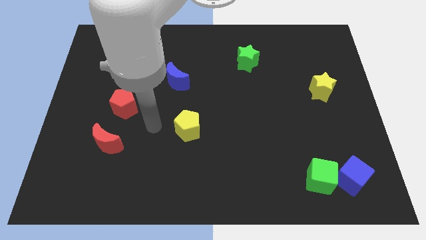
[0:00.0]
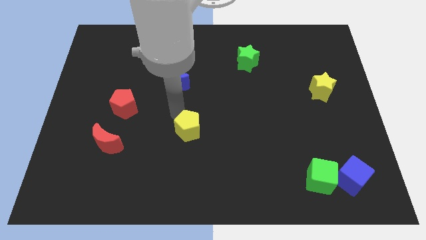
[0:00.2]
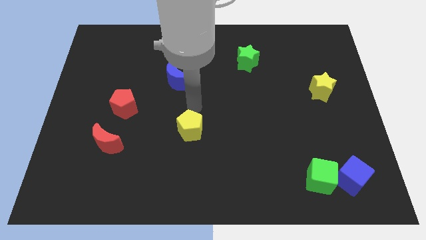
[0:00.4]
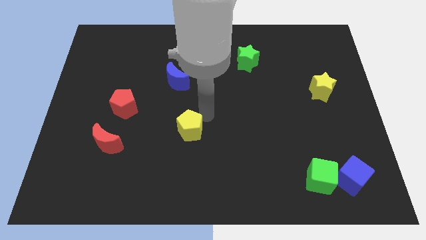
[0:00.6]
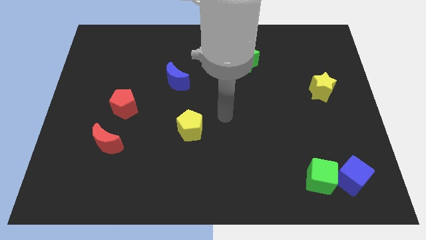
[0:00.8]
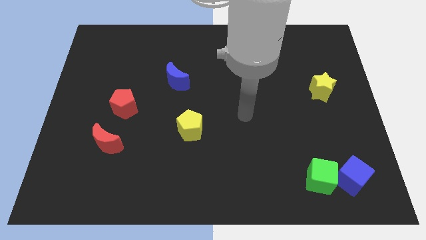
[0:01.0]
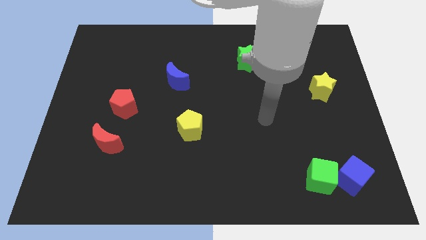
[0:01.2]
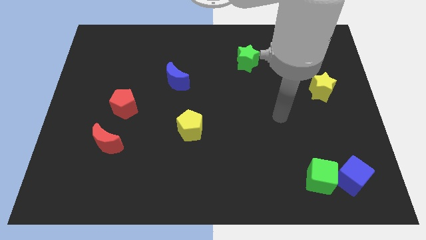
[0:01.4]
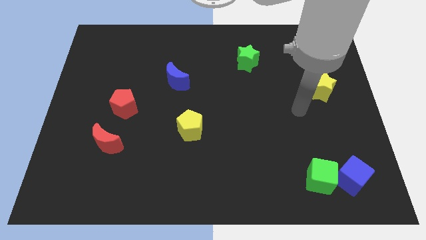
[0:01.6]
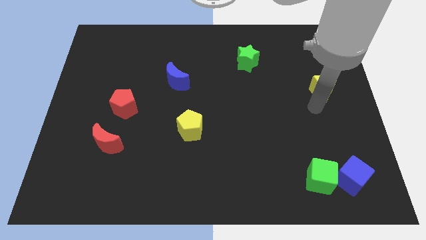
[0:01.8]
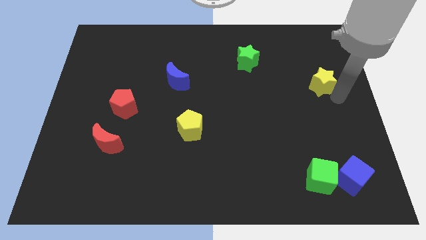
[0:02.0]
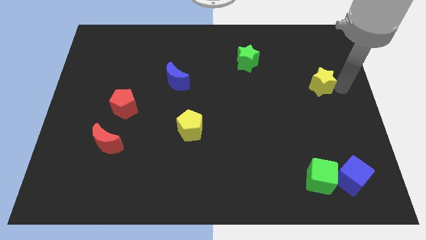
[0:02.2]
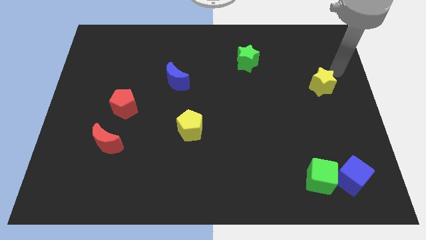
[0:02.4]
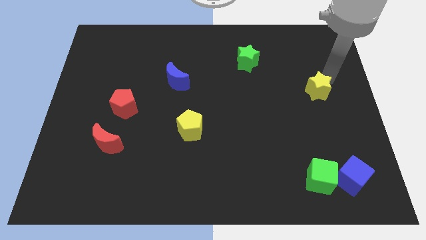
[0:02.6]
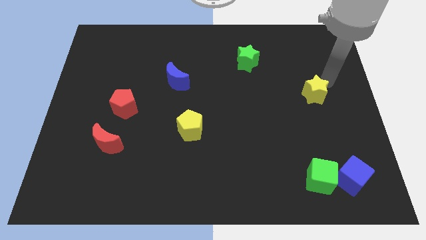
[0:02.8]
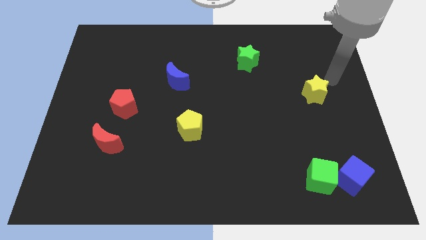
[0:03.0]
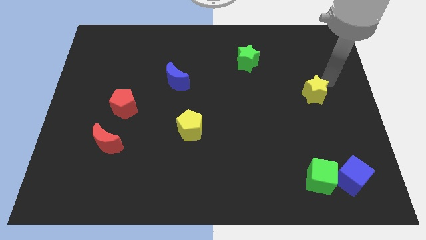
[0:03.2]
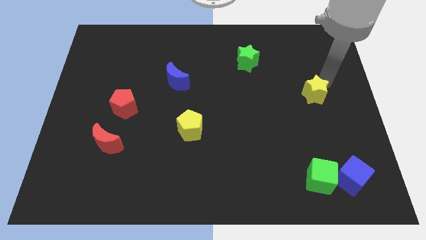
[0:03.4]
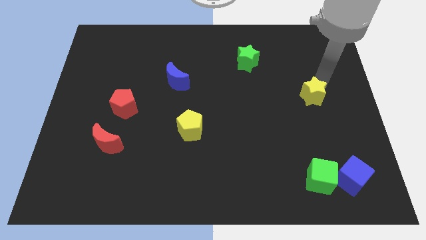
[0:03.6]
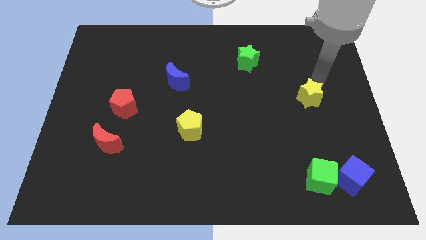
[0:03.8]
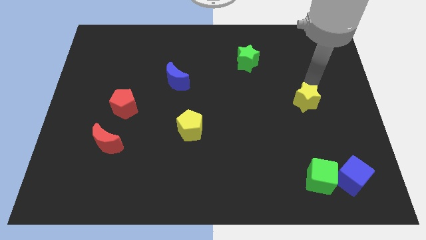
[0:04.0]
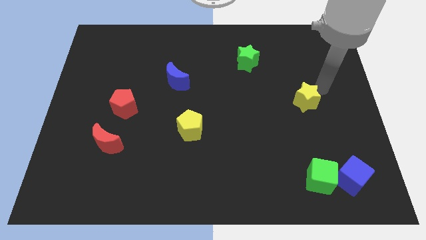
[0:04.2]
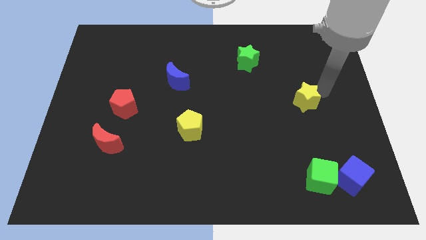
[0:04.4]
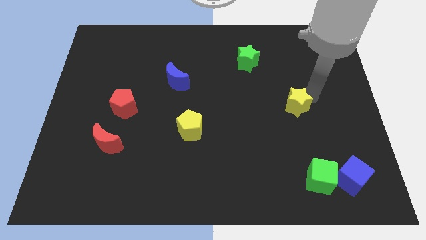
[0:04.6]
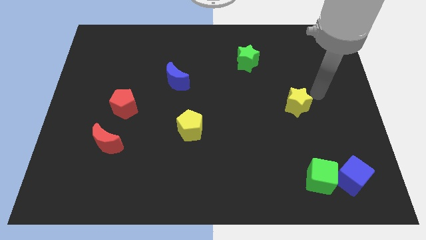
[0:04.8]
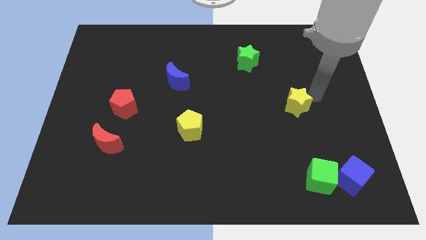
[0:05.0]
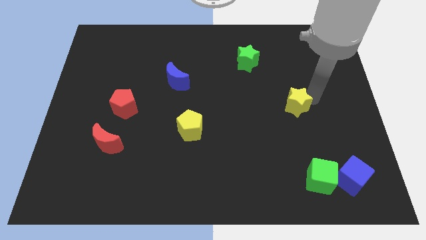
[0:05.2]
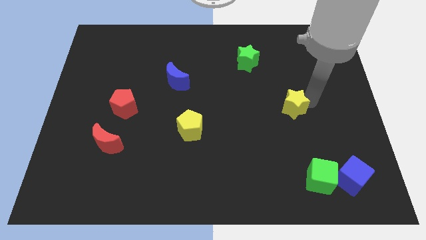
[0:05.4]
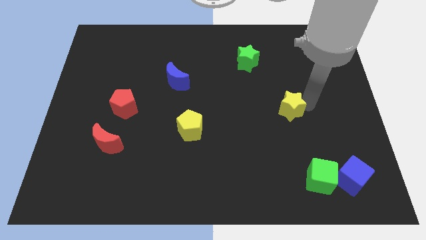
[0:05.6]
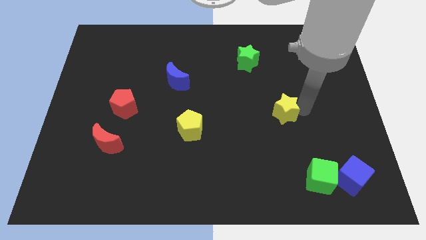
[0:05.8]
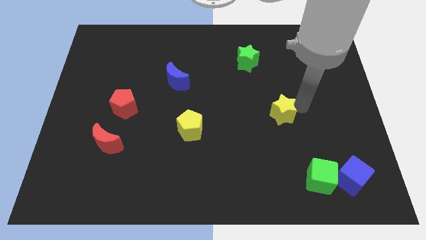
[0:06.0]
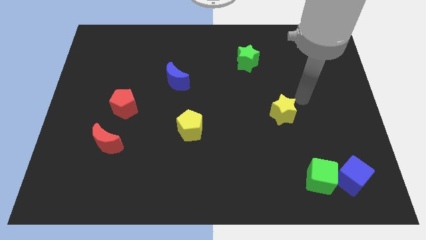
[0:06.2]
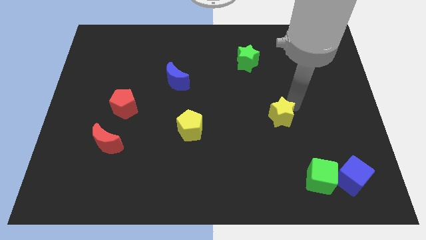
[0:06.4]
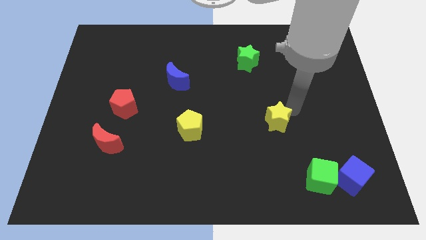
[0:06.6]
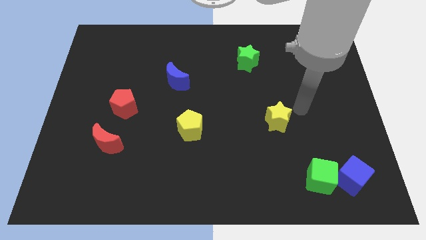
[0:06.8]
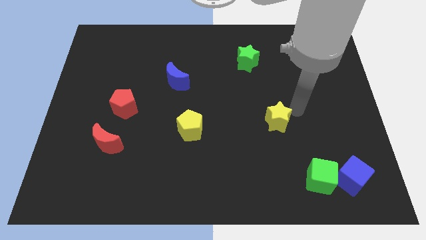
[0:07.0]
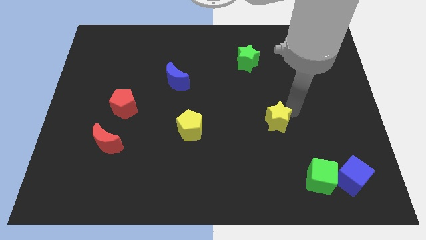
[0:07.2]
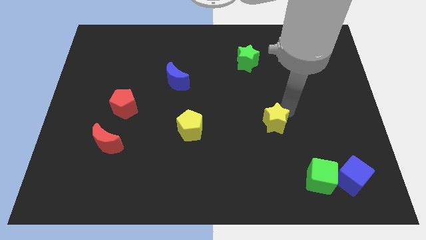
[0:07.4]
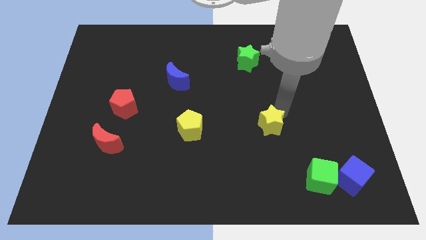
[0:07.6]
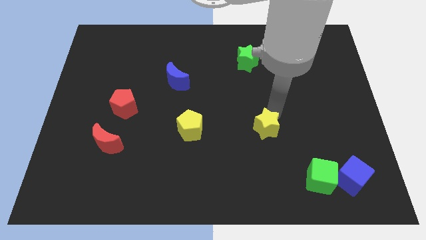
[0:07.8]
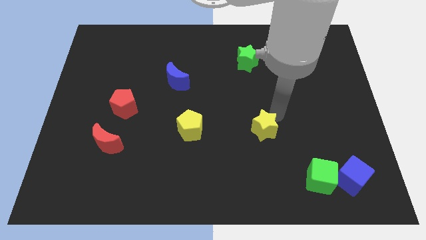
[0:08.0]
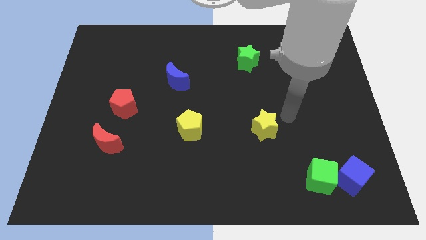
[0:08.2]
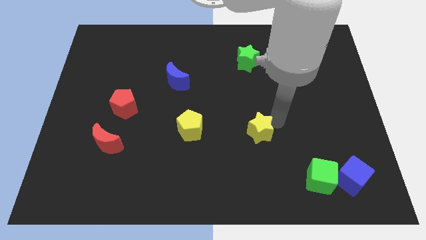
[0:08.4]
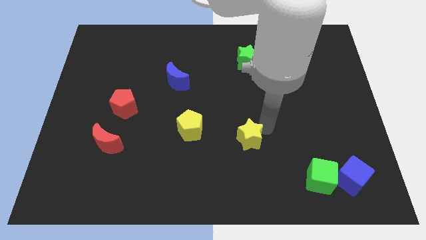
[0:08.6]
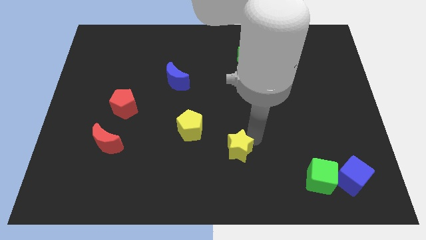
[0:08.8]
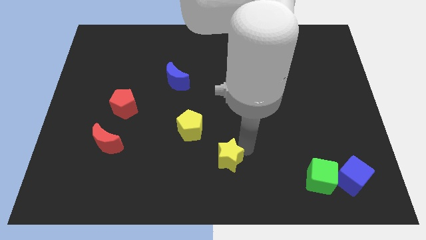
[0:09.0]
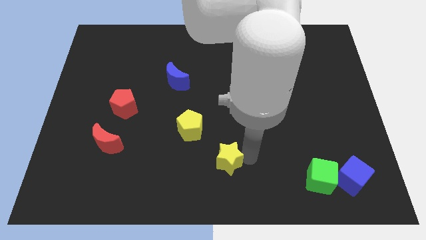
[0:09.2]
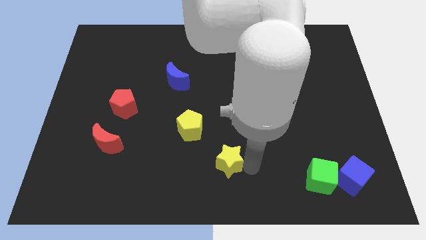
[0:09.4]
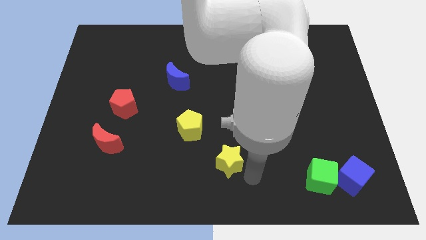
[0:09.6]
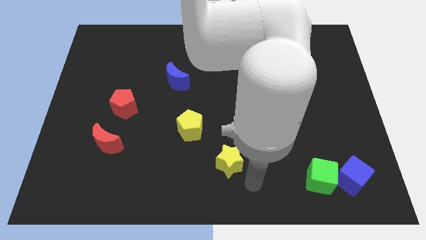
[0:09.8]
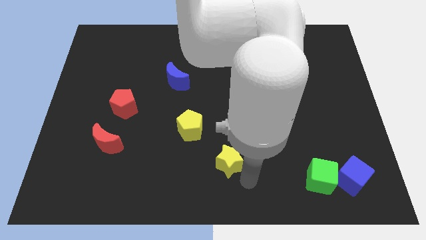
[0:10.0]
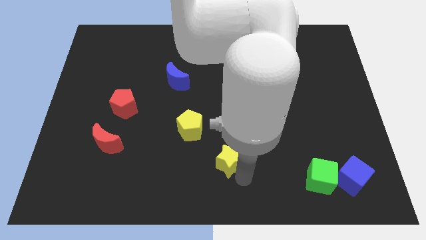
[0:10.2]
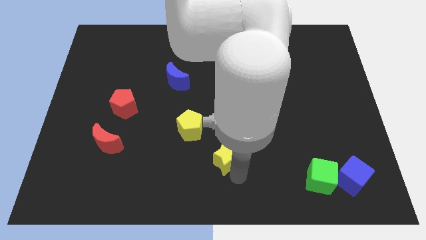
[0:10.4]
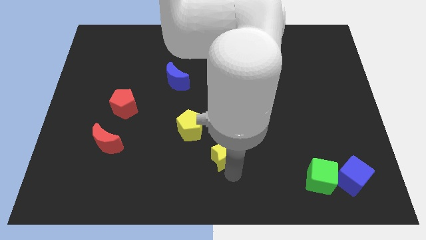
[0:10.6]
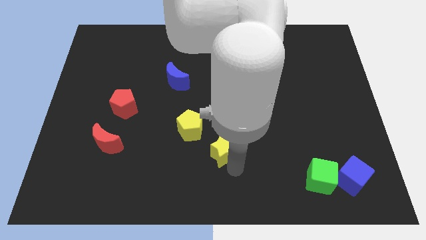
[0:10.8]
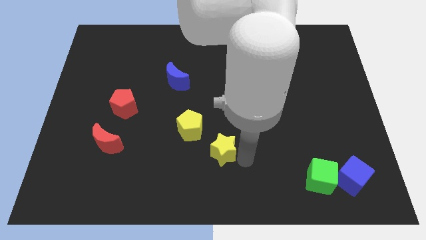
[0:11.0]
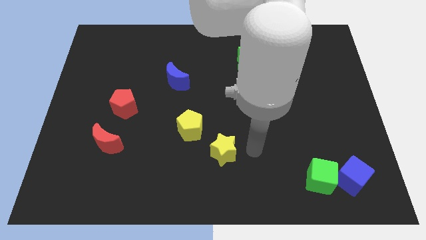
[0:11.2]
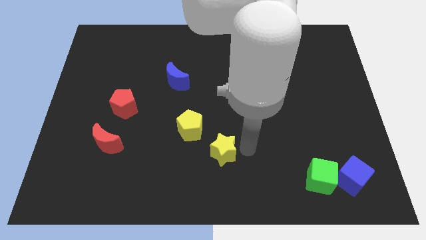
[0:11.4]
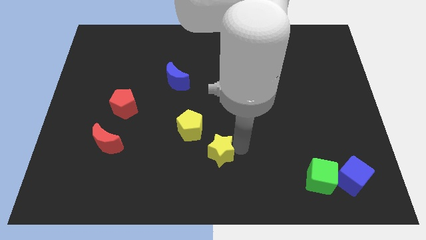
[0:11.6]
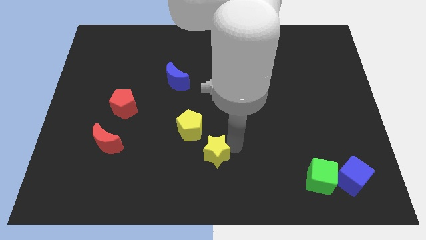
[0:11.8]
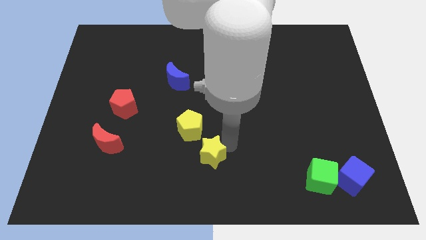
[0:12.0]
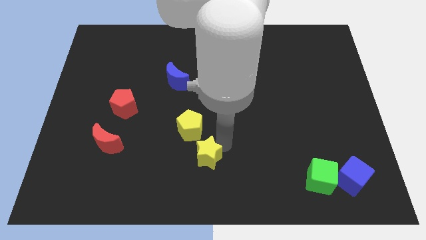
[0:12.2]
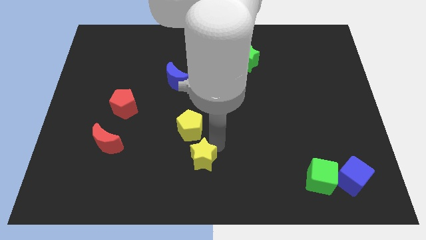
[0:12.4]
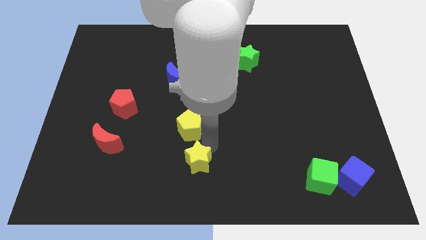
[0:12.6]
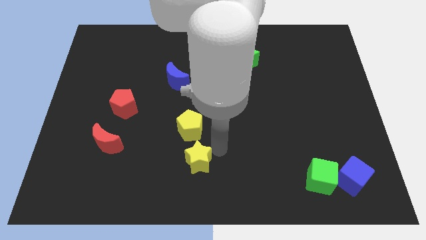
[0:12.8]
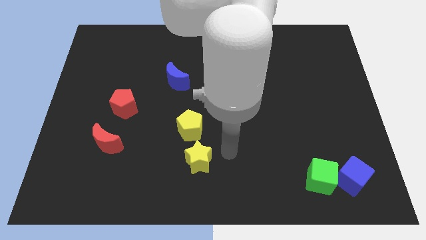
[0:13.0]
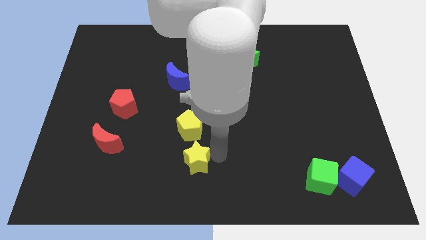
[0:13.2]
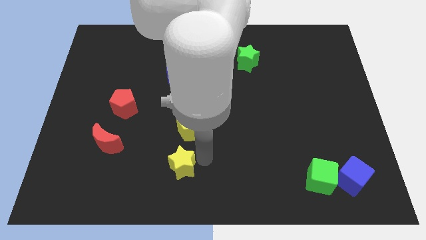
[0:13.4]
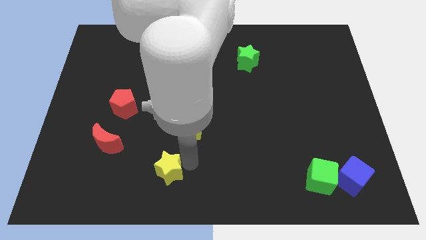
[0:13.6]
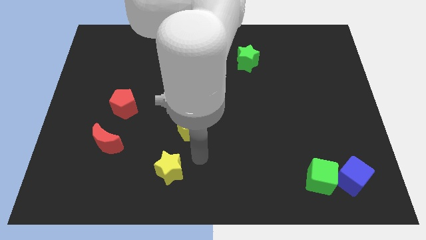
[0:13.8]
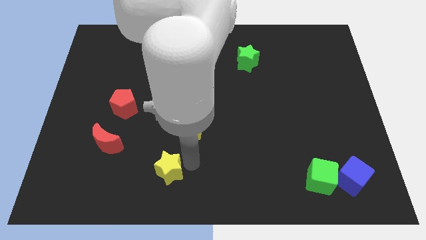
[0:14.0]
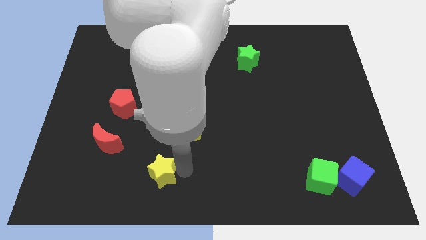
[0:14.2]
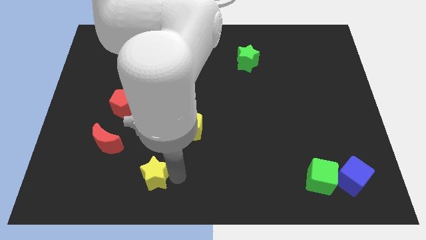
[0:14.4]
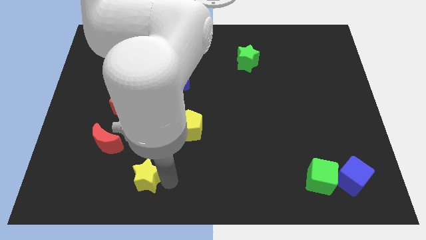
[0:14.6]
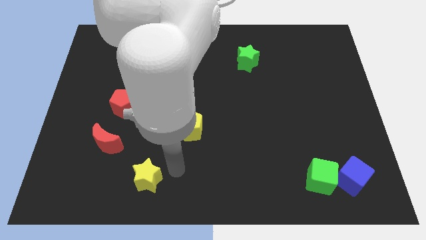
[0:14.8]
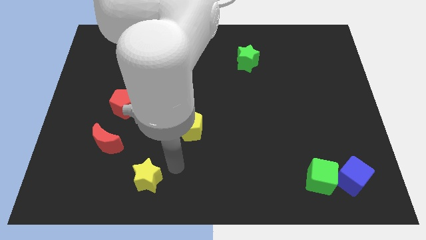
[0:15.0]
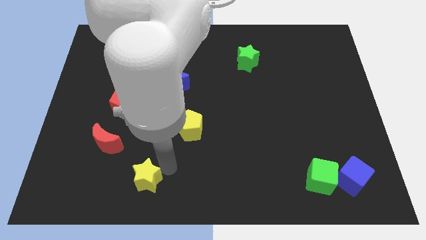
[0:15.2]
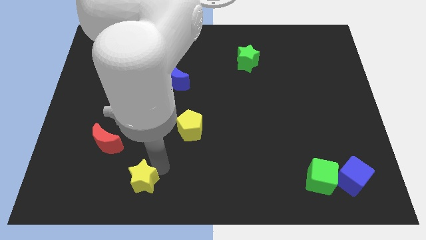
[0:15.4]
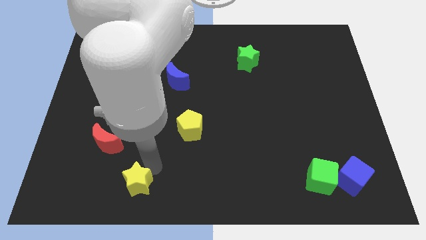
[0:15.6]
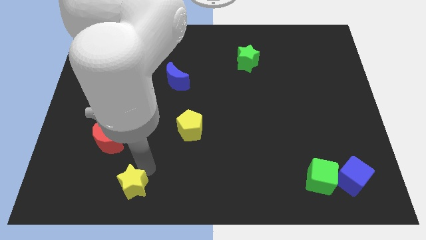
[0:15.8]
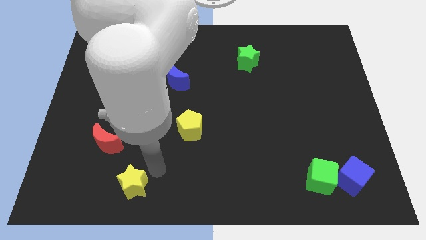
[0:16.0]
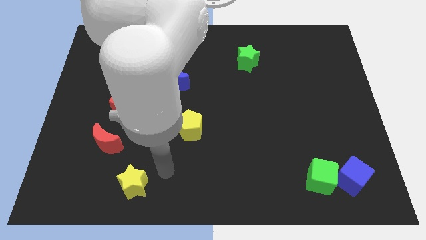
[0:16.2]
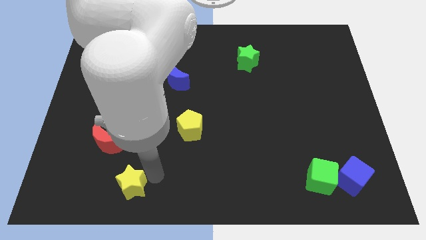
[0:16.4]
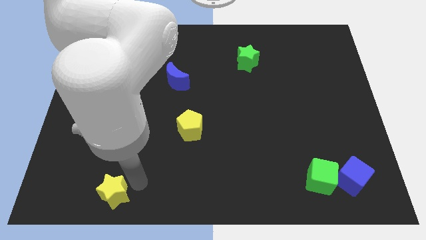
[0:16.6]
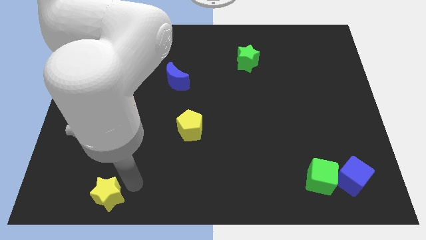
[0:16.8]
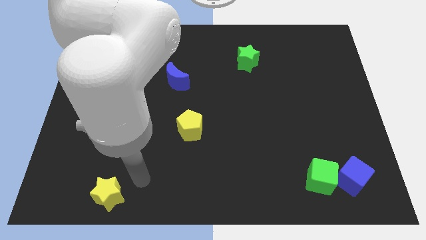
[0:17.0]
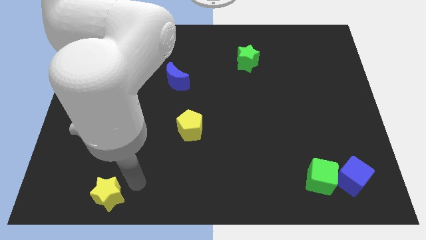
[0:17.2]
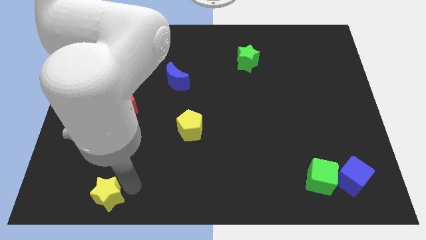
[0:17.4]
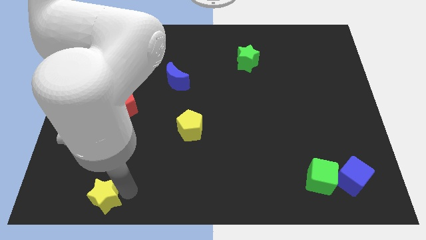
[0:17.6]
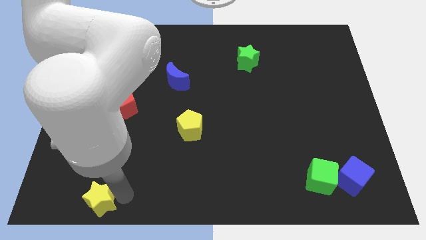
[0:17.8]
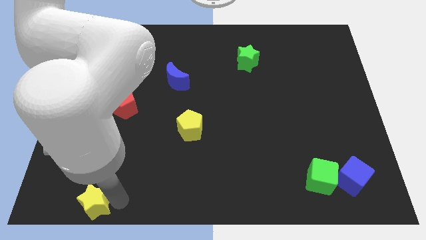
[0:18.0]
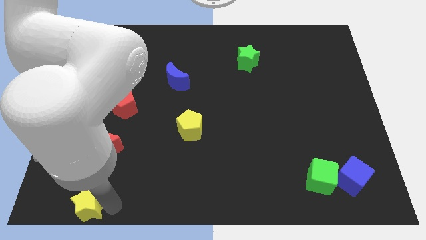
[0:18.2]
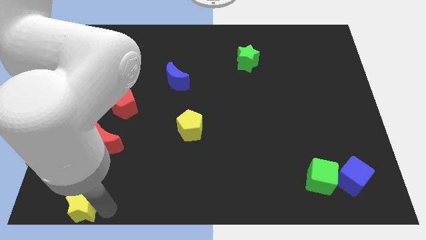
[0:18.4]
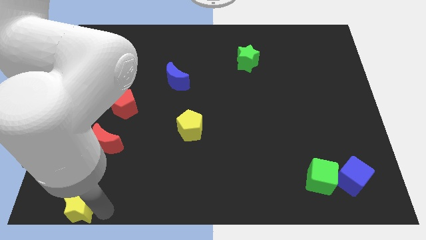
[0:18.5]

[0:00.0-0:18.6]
put the yellow star to the bottom left corner
